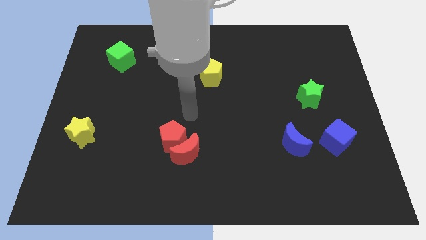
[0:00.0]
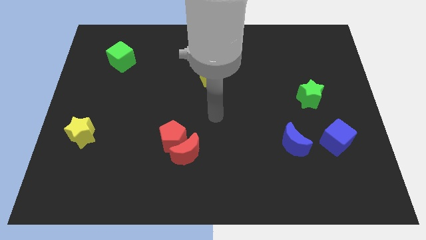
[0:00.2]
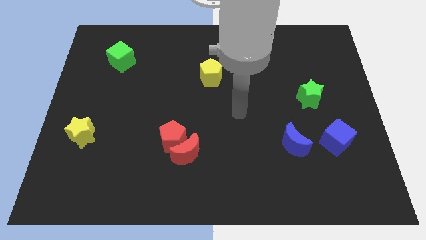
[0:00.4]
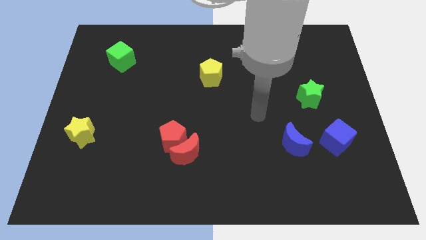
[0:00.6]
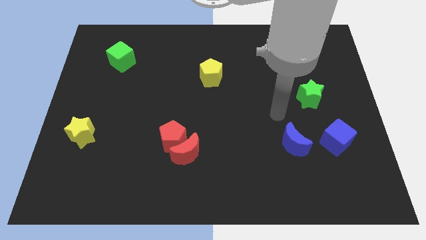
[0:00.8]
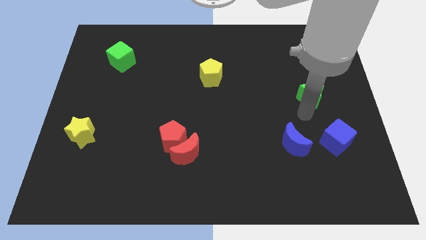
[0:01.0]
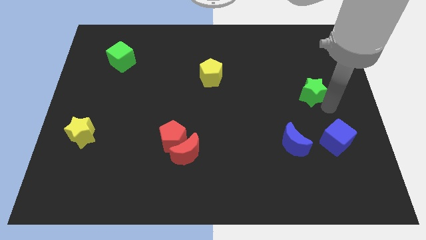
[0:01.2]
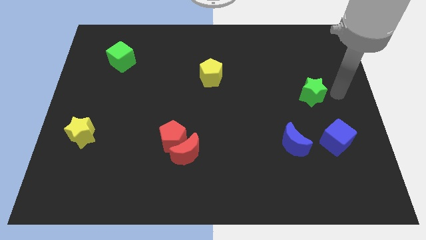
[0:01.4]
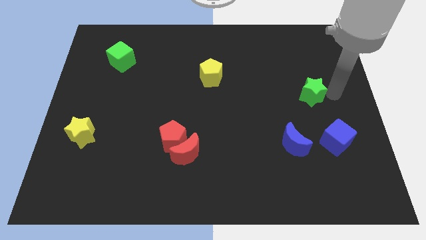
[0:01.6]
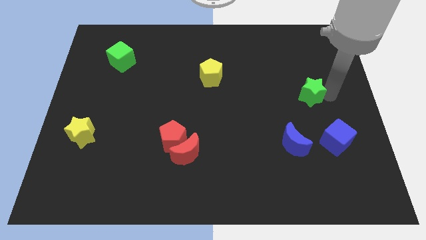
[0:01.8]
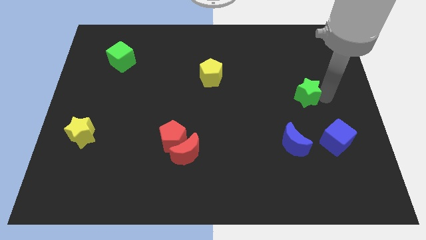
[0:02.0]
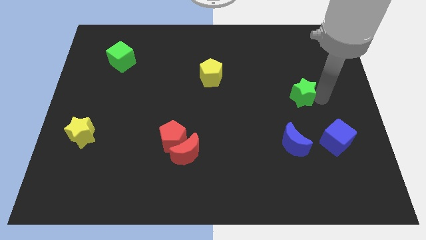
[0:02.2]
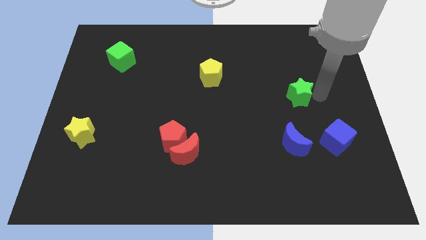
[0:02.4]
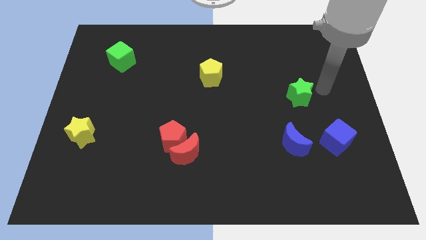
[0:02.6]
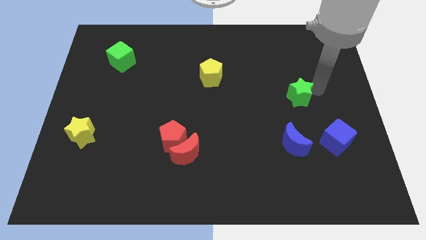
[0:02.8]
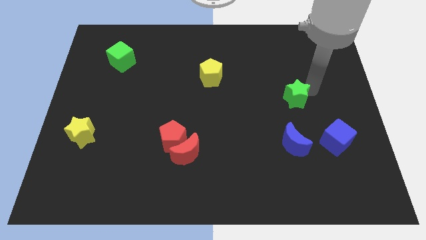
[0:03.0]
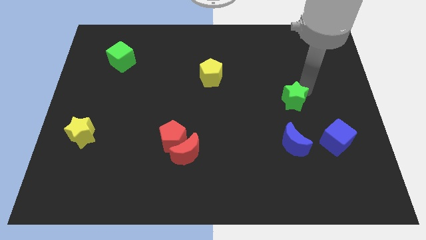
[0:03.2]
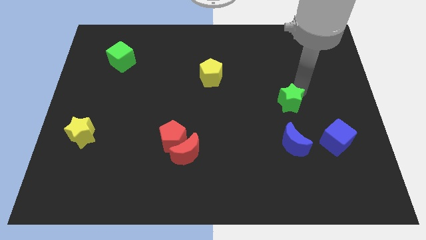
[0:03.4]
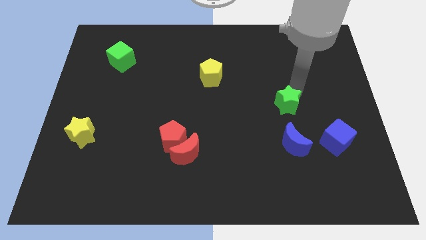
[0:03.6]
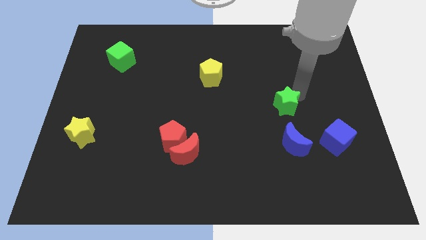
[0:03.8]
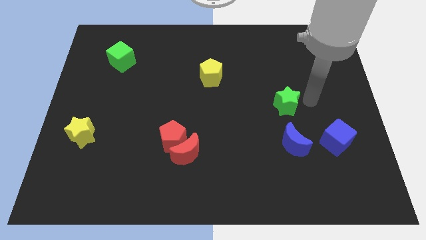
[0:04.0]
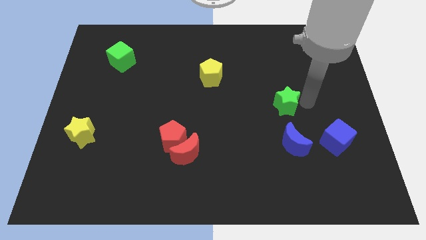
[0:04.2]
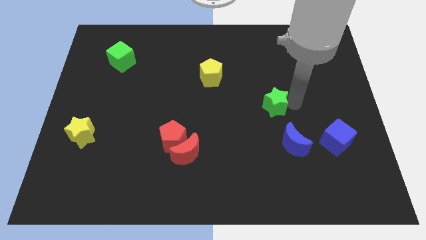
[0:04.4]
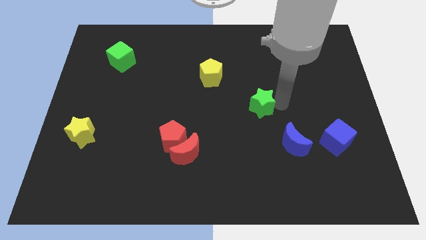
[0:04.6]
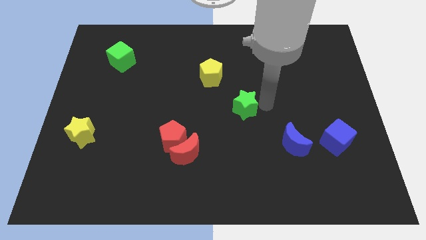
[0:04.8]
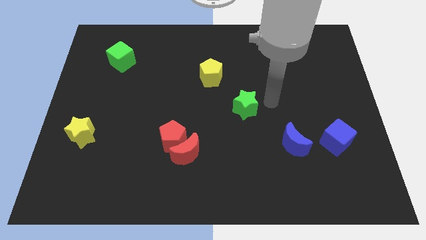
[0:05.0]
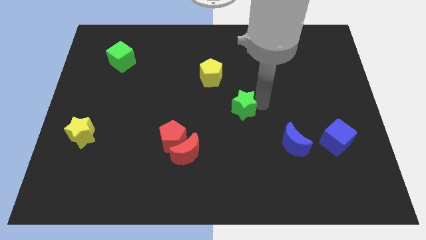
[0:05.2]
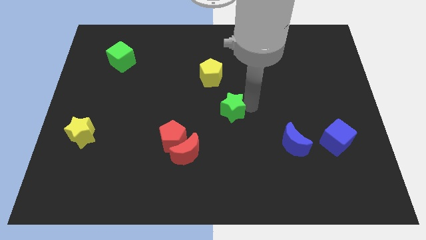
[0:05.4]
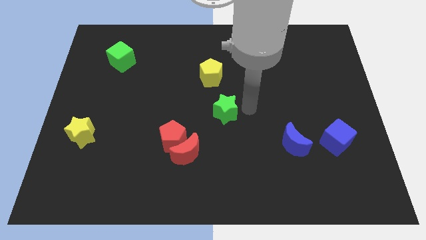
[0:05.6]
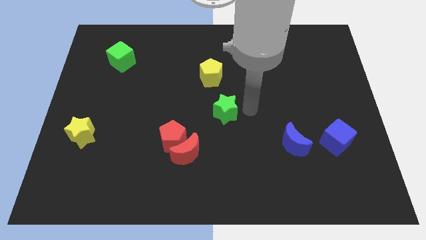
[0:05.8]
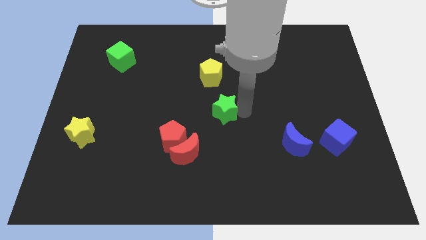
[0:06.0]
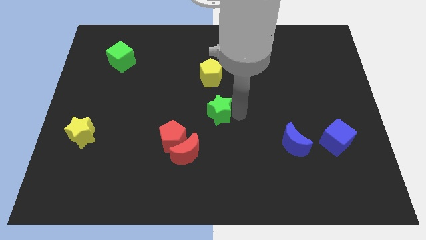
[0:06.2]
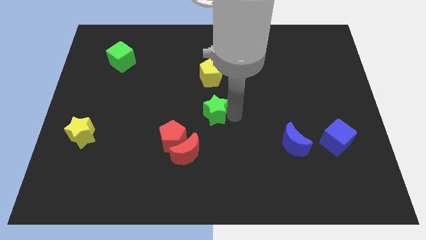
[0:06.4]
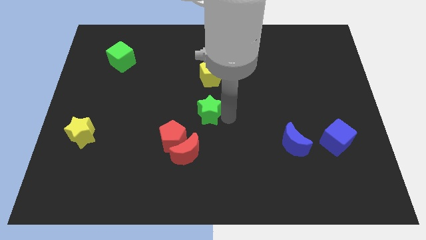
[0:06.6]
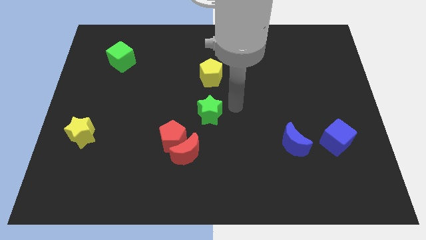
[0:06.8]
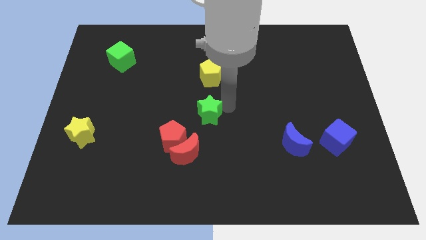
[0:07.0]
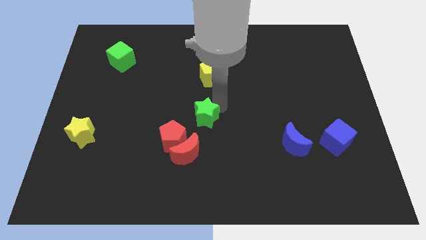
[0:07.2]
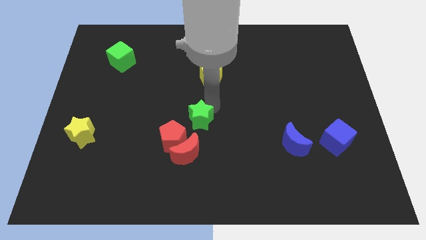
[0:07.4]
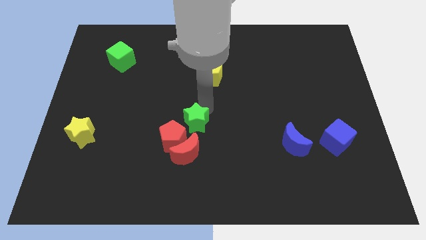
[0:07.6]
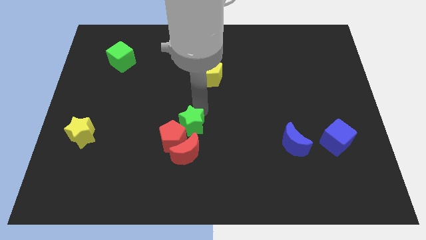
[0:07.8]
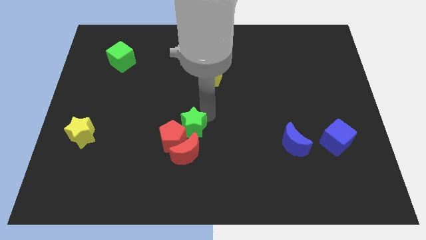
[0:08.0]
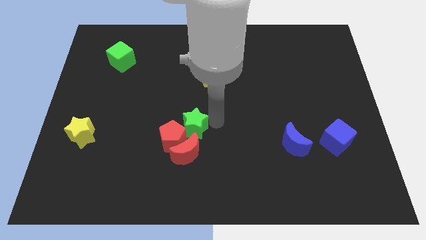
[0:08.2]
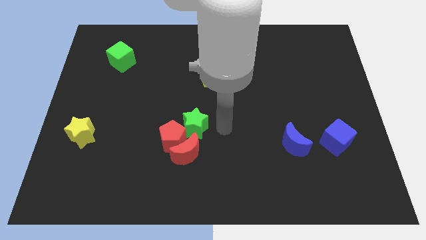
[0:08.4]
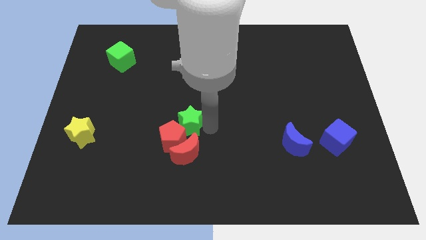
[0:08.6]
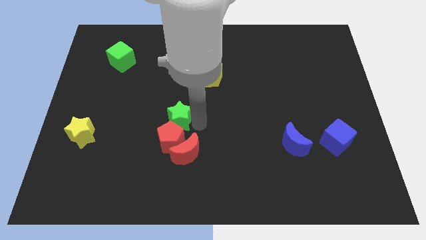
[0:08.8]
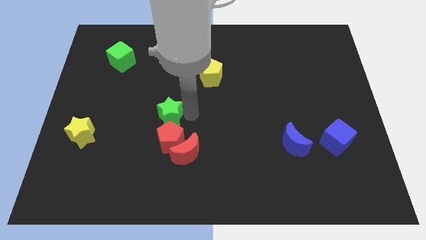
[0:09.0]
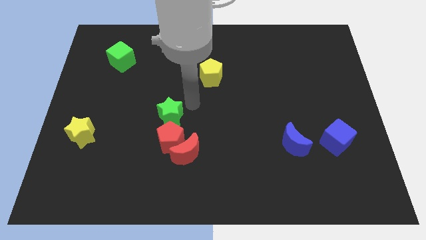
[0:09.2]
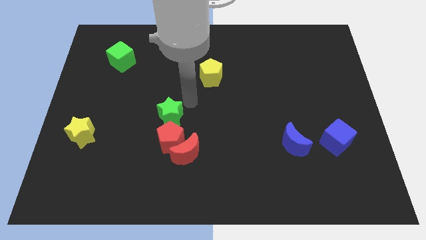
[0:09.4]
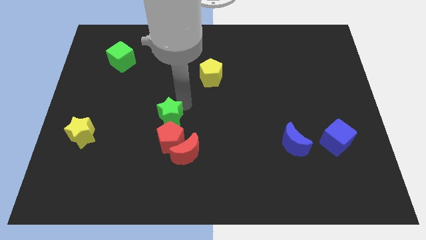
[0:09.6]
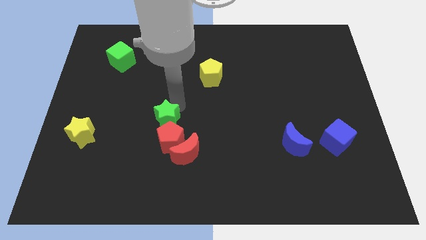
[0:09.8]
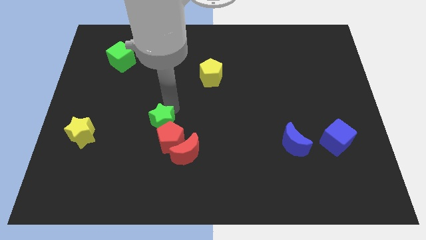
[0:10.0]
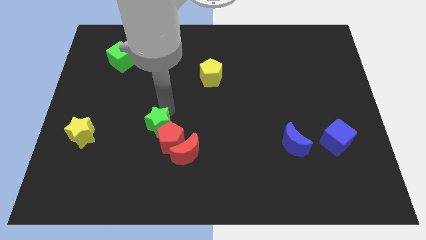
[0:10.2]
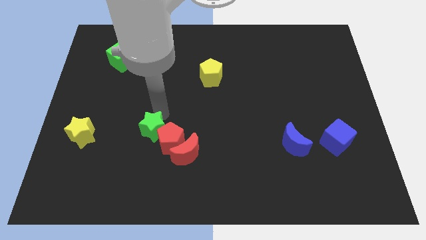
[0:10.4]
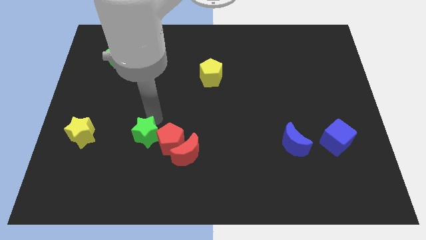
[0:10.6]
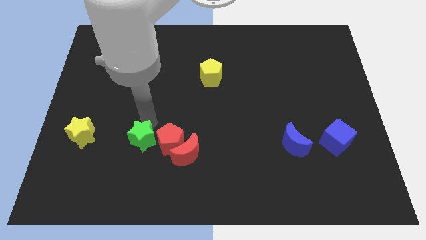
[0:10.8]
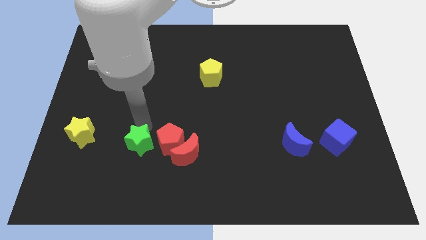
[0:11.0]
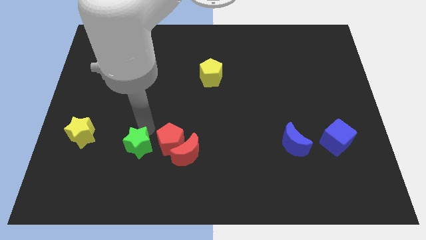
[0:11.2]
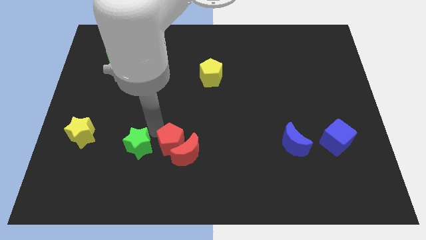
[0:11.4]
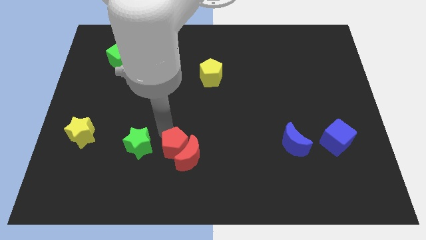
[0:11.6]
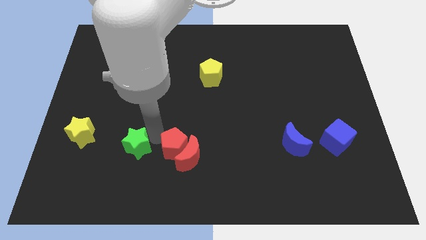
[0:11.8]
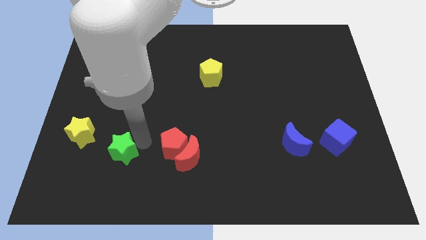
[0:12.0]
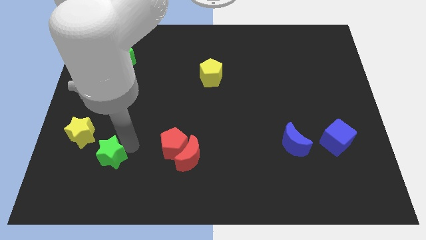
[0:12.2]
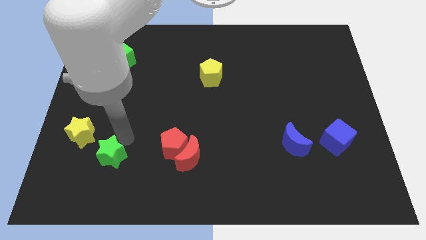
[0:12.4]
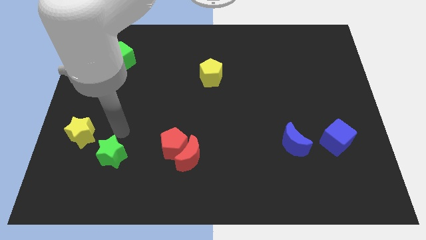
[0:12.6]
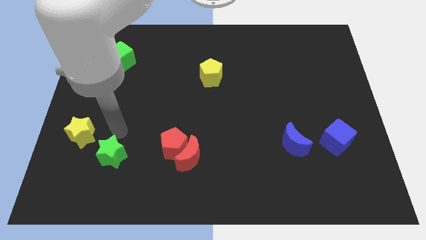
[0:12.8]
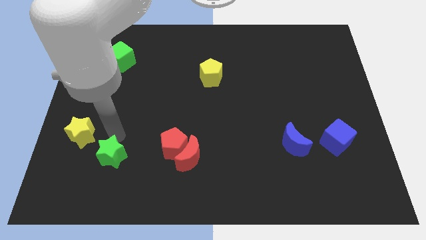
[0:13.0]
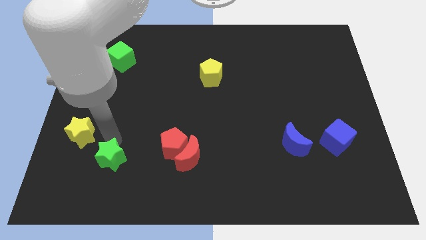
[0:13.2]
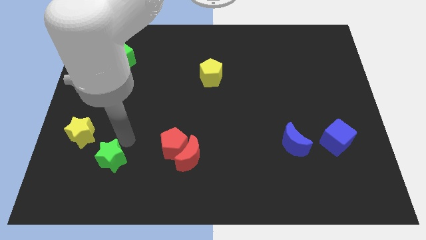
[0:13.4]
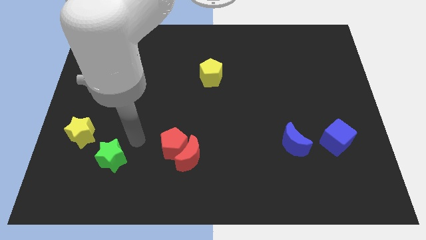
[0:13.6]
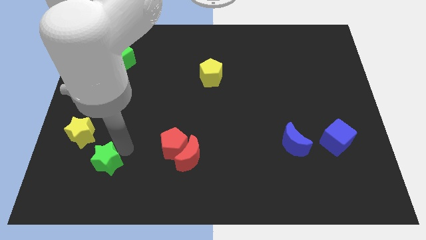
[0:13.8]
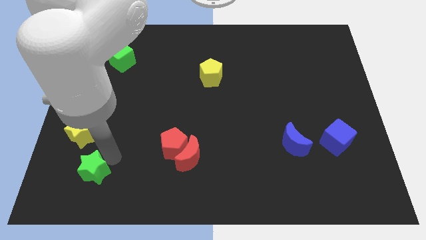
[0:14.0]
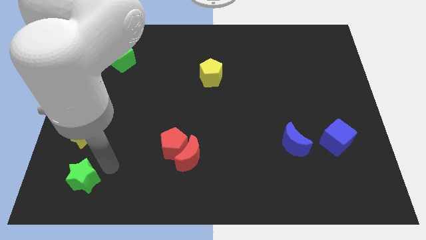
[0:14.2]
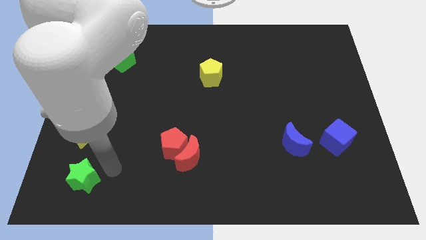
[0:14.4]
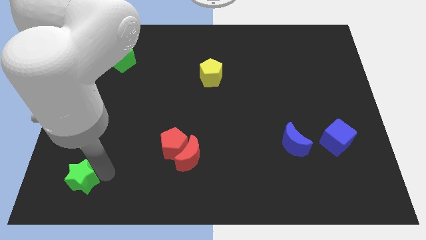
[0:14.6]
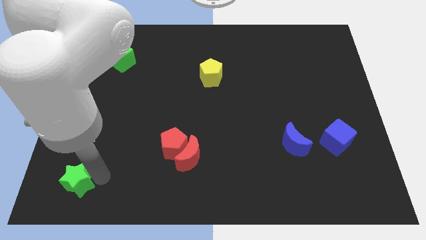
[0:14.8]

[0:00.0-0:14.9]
put the green star to the bottom left
